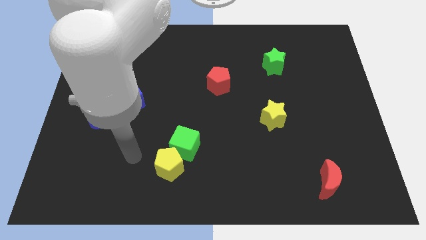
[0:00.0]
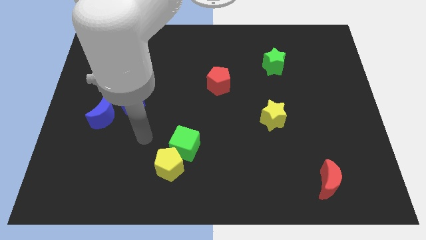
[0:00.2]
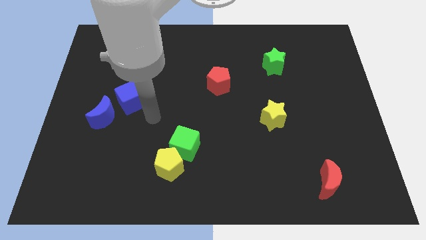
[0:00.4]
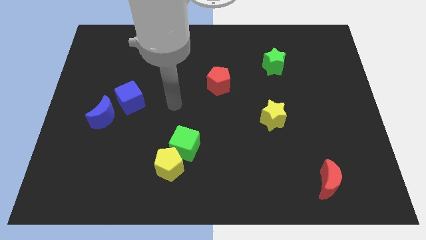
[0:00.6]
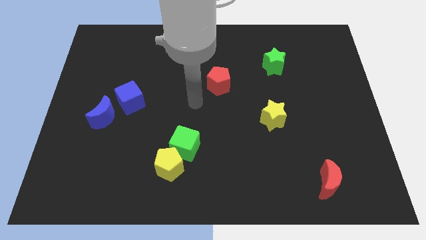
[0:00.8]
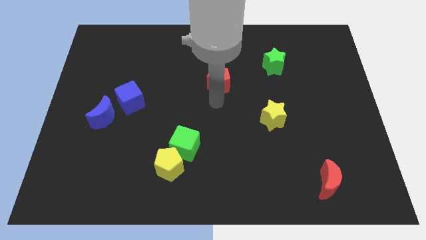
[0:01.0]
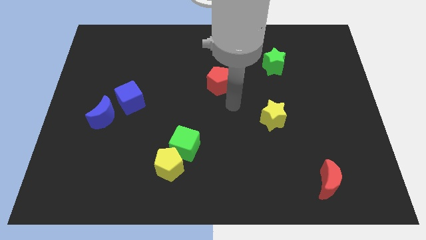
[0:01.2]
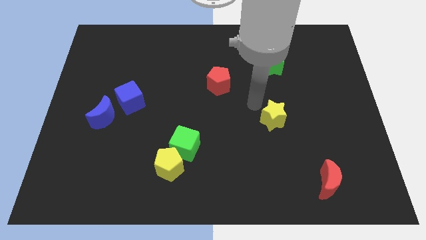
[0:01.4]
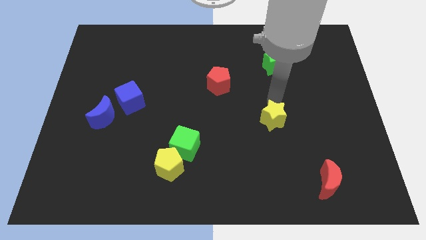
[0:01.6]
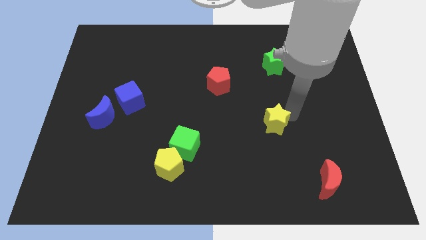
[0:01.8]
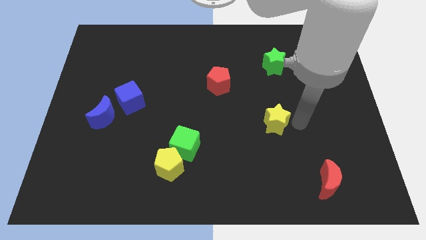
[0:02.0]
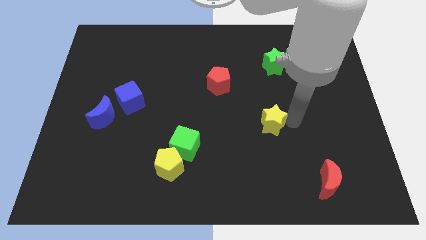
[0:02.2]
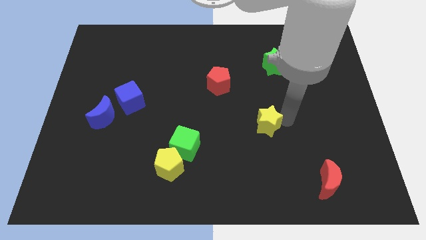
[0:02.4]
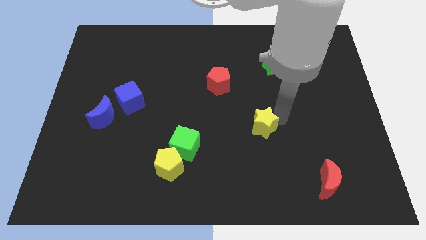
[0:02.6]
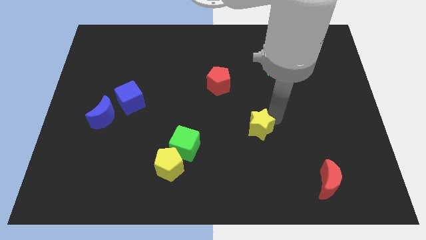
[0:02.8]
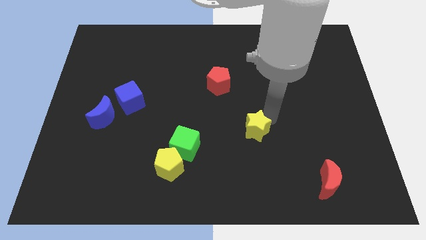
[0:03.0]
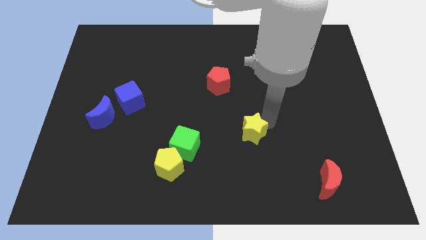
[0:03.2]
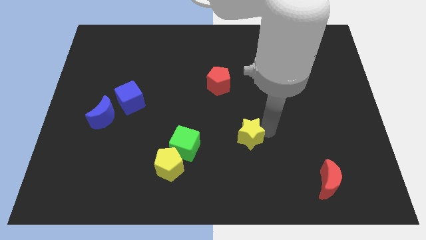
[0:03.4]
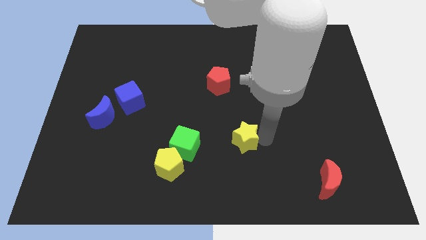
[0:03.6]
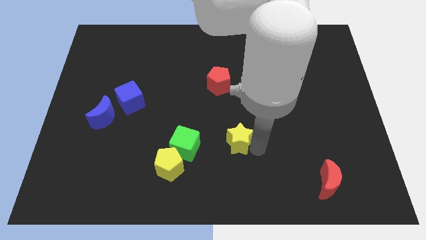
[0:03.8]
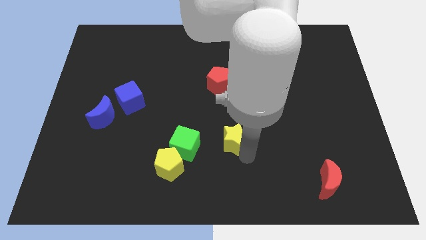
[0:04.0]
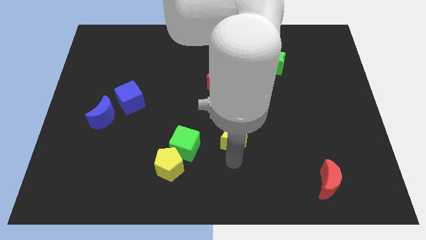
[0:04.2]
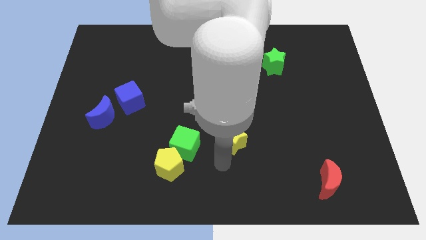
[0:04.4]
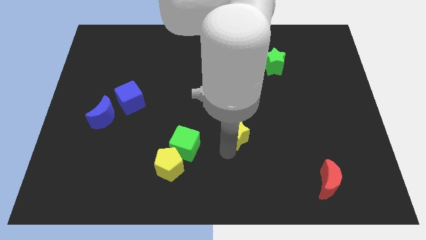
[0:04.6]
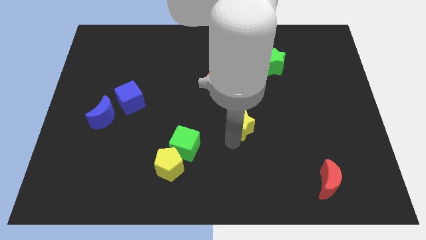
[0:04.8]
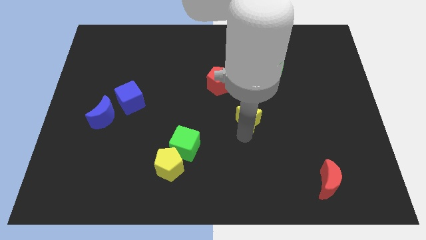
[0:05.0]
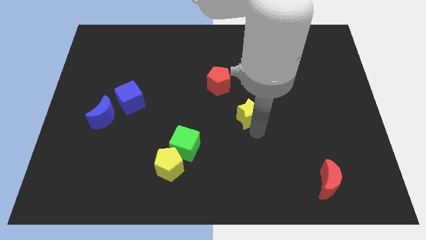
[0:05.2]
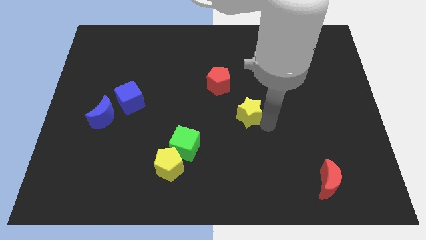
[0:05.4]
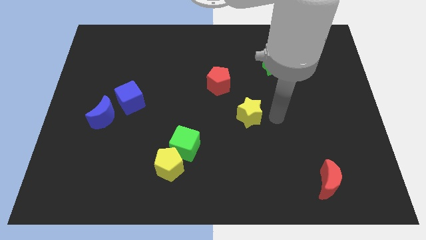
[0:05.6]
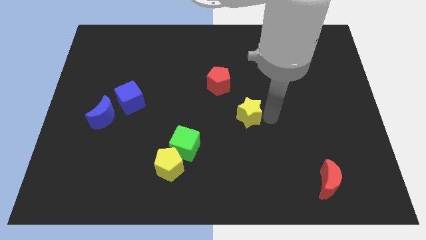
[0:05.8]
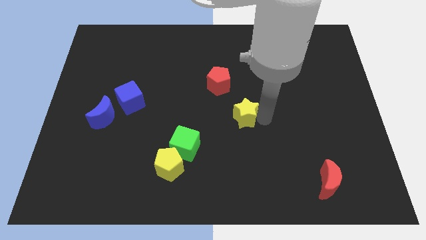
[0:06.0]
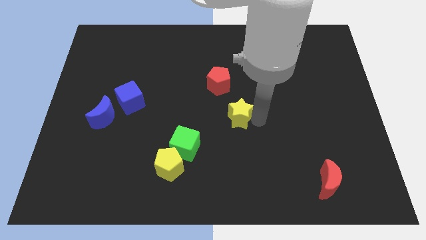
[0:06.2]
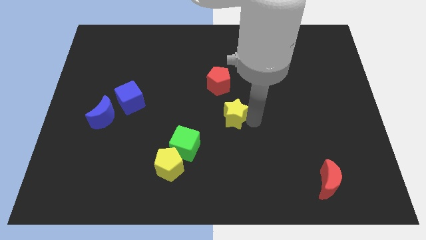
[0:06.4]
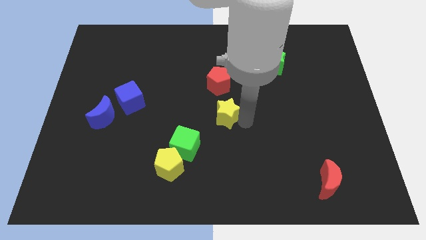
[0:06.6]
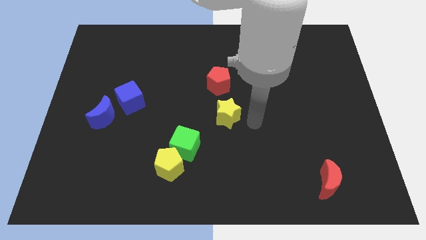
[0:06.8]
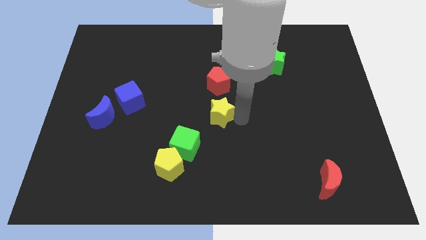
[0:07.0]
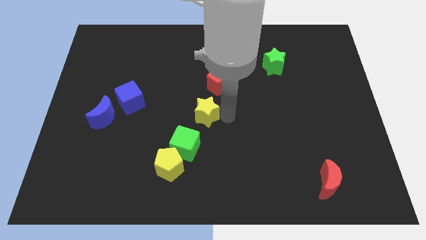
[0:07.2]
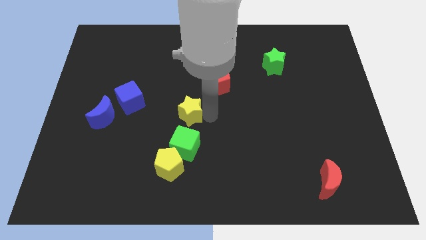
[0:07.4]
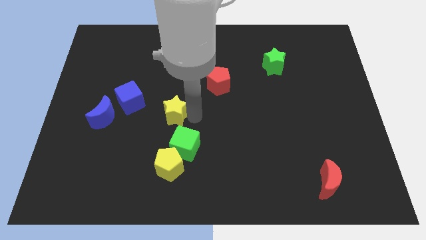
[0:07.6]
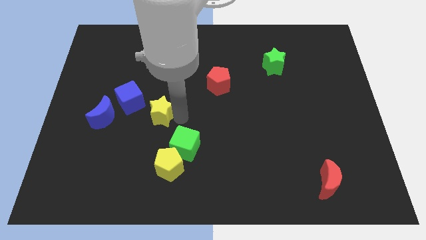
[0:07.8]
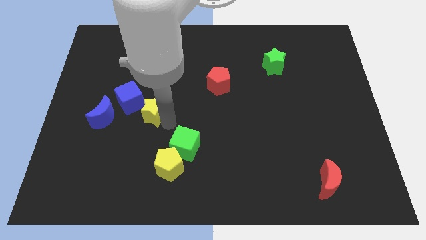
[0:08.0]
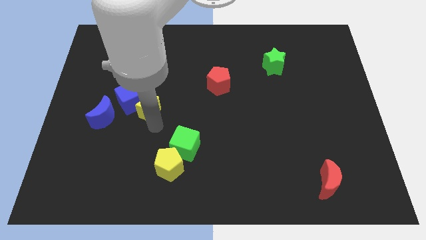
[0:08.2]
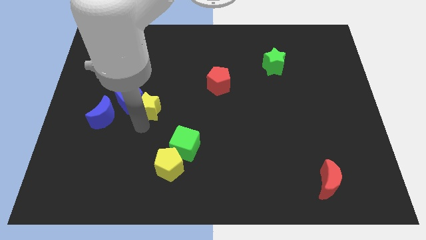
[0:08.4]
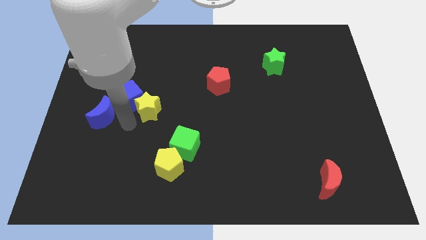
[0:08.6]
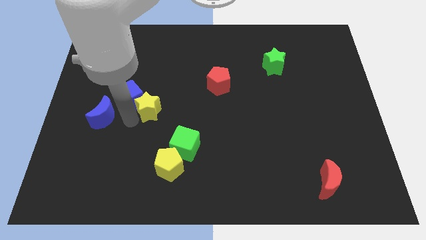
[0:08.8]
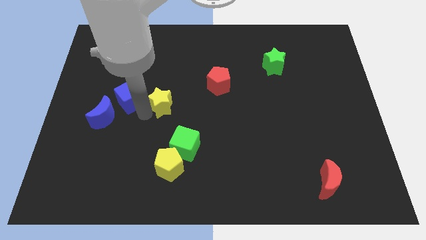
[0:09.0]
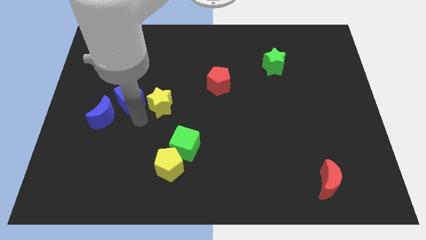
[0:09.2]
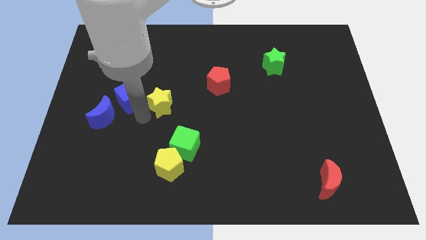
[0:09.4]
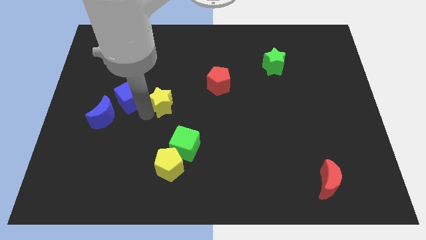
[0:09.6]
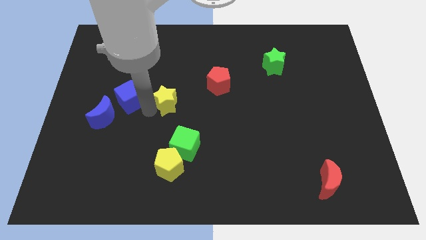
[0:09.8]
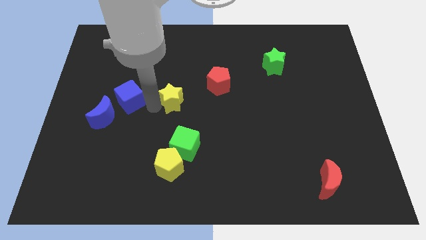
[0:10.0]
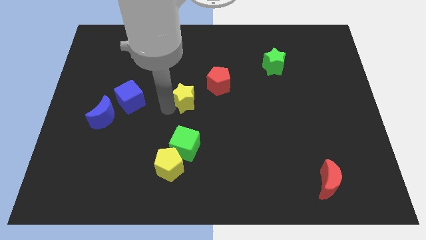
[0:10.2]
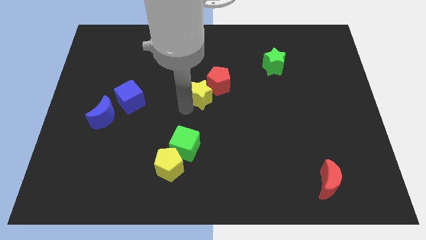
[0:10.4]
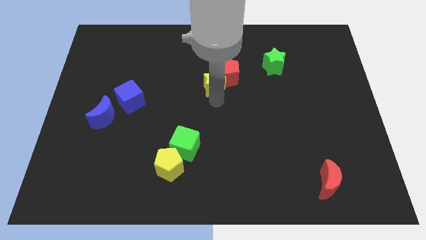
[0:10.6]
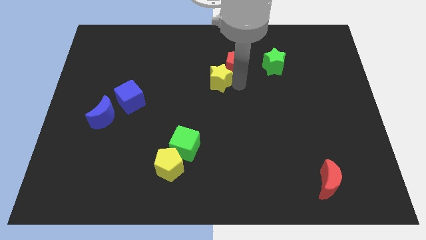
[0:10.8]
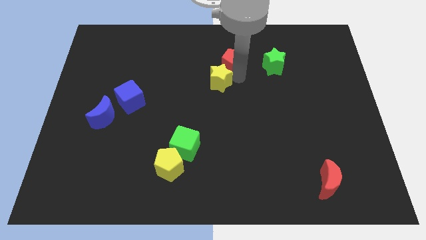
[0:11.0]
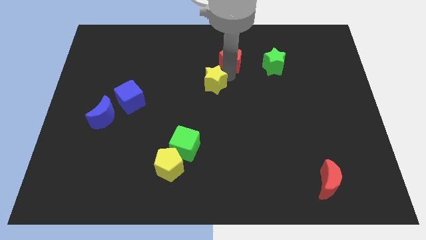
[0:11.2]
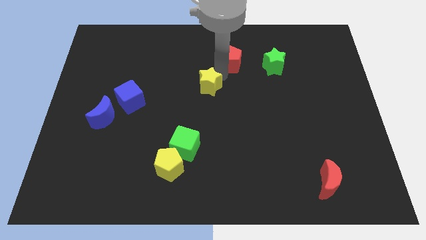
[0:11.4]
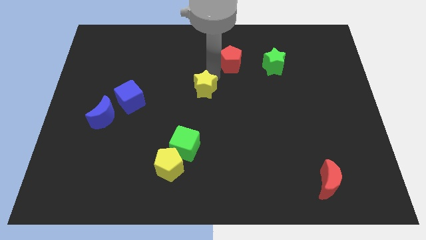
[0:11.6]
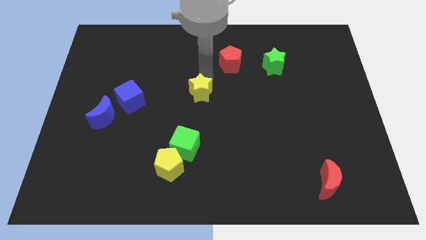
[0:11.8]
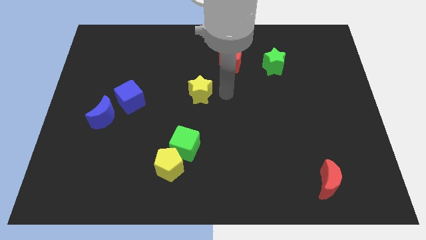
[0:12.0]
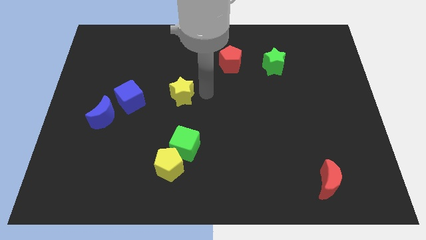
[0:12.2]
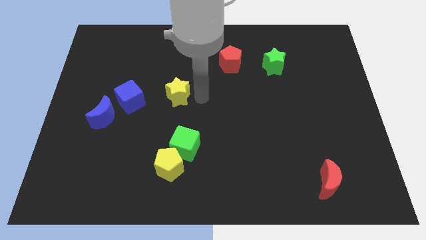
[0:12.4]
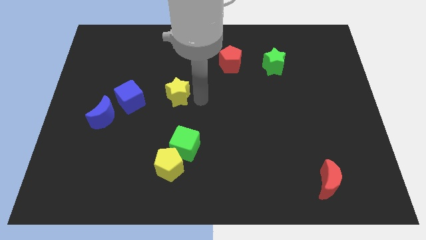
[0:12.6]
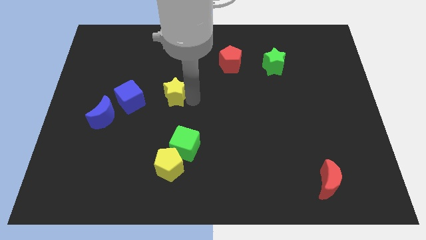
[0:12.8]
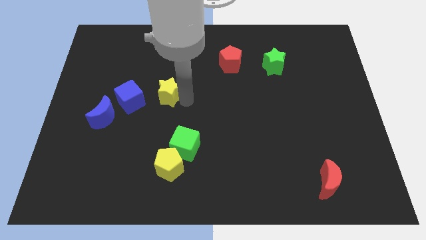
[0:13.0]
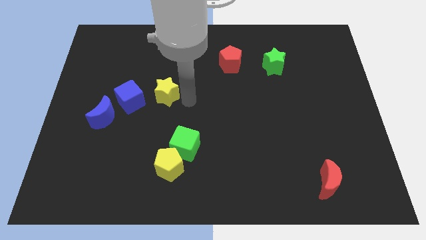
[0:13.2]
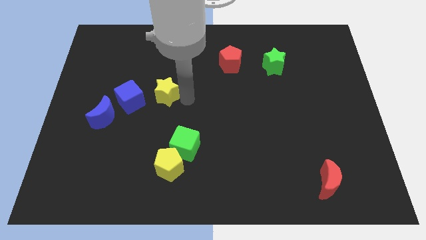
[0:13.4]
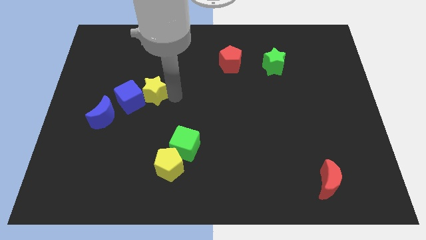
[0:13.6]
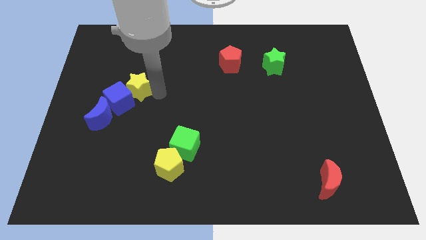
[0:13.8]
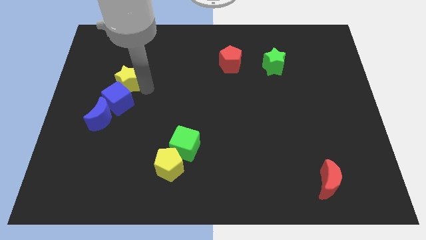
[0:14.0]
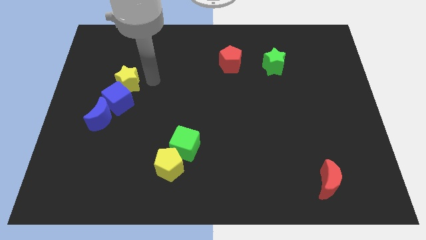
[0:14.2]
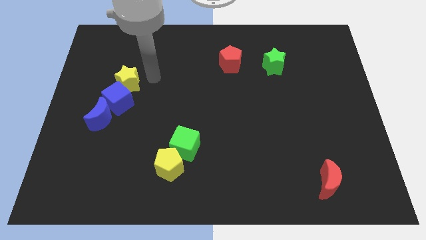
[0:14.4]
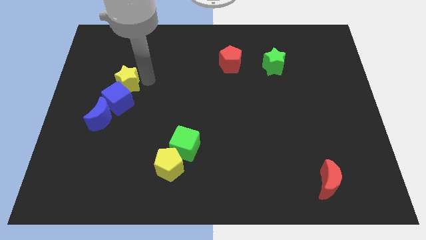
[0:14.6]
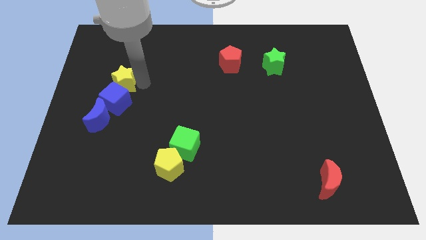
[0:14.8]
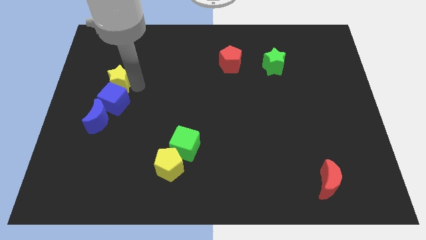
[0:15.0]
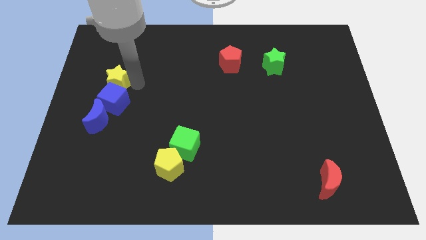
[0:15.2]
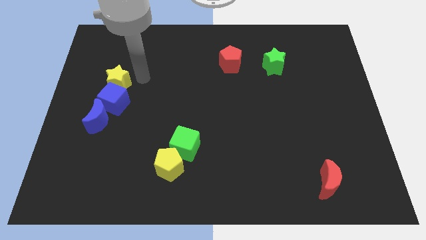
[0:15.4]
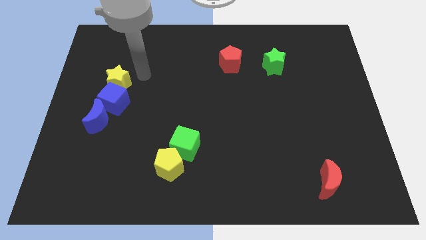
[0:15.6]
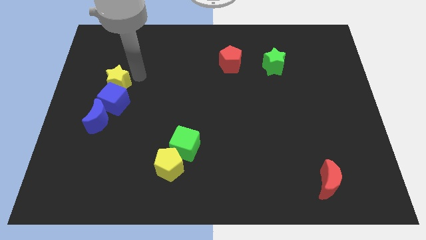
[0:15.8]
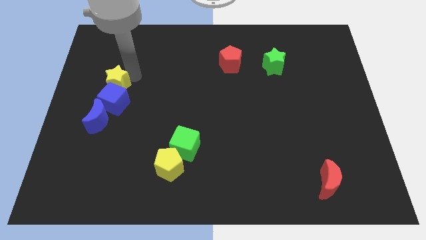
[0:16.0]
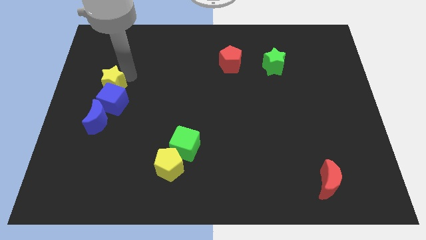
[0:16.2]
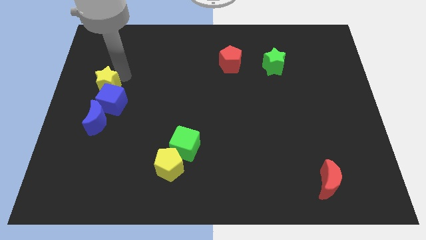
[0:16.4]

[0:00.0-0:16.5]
move the yellow star to the center left
